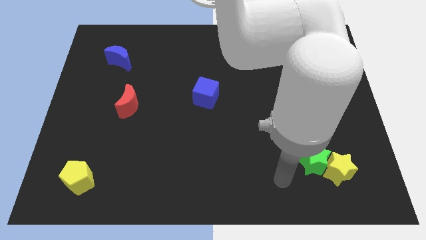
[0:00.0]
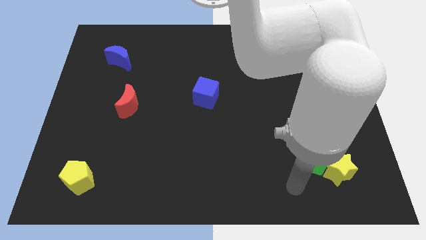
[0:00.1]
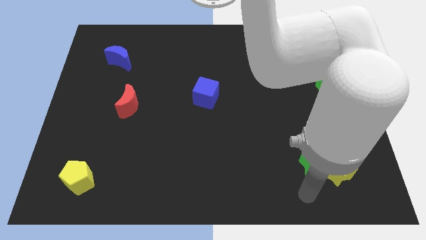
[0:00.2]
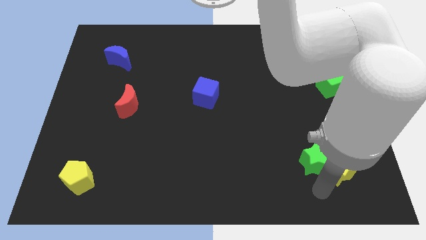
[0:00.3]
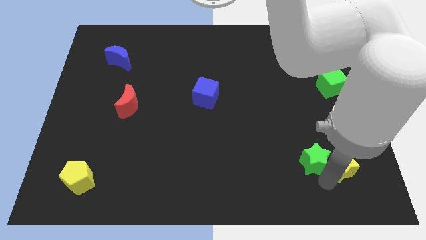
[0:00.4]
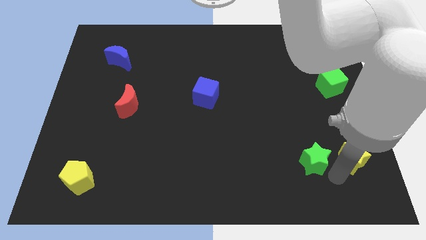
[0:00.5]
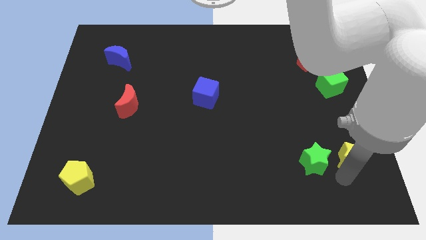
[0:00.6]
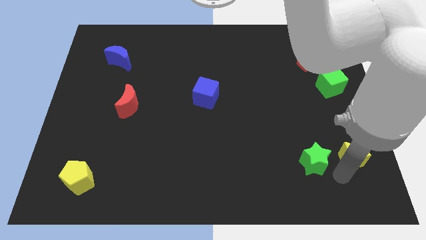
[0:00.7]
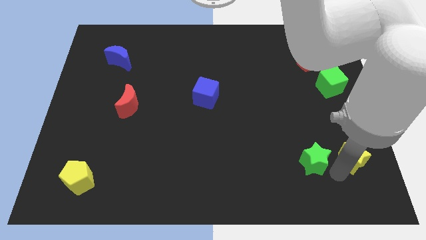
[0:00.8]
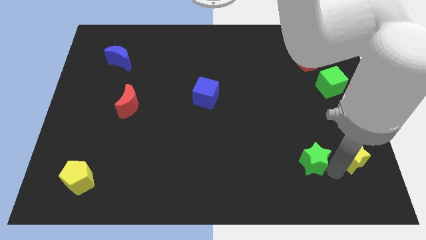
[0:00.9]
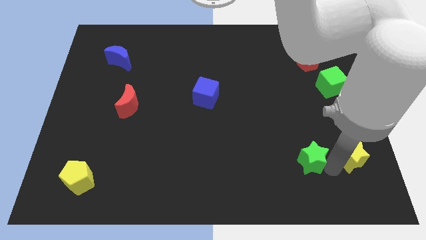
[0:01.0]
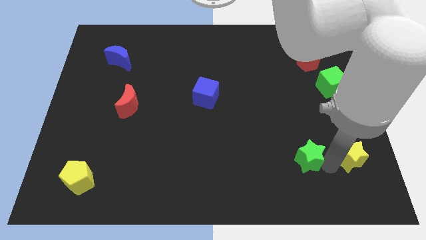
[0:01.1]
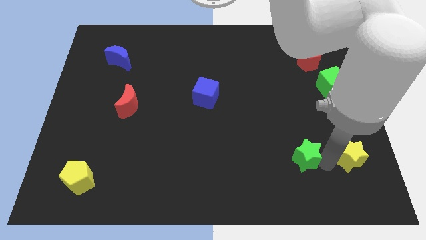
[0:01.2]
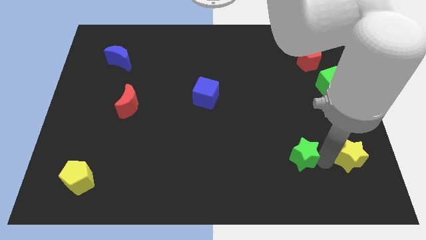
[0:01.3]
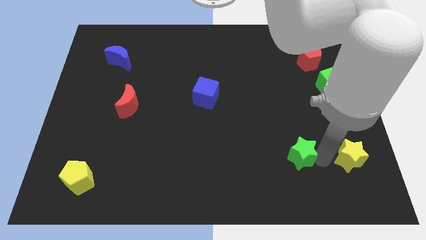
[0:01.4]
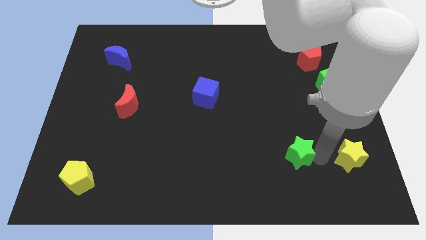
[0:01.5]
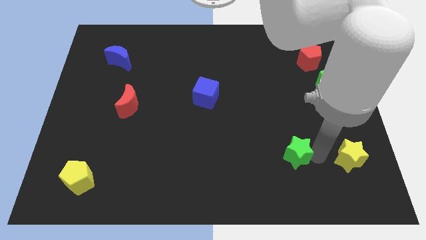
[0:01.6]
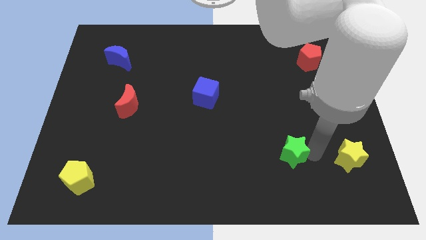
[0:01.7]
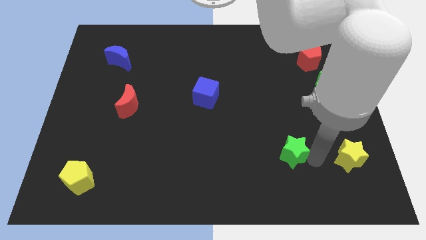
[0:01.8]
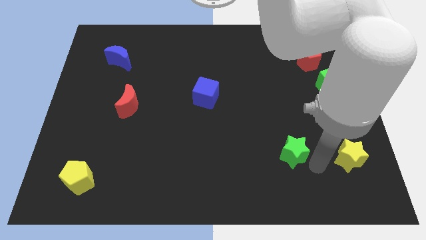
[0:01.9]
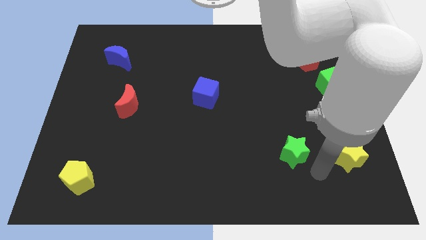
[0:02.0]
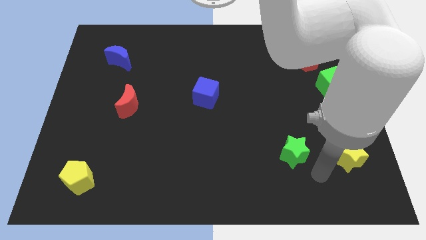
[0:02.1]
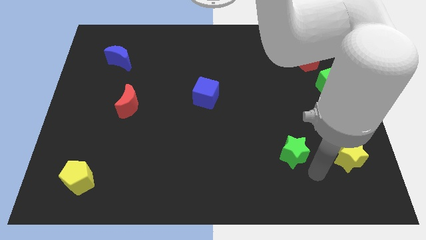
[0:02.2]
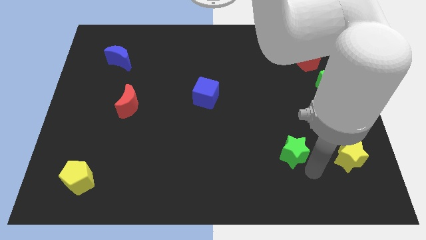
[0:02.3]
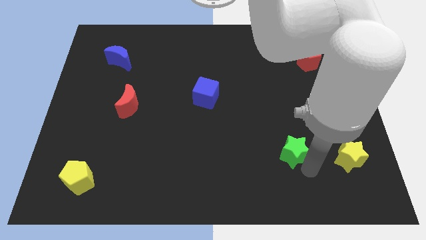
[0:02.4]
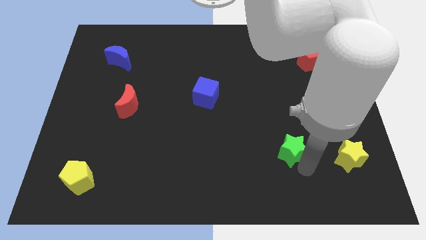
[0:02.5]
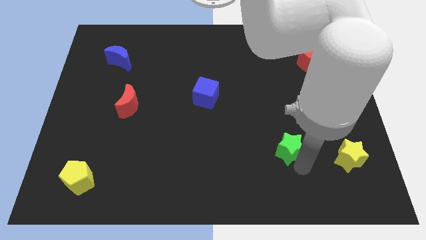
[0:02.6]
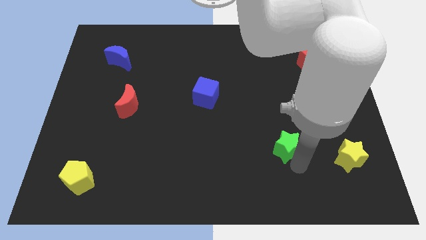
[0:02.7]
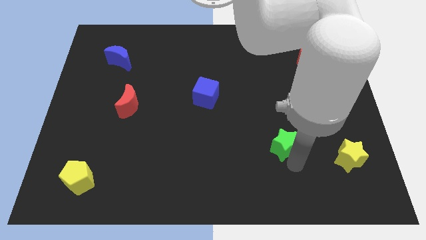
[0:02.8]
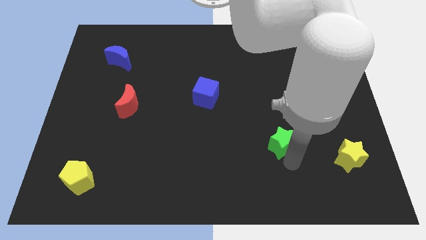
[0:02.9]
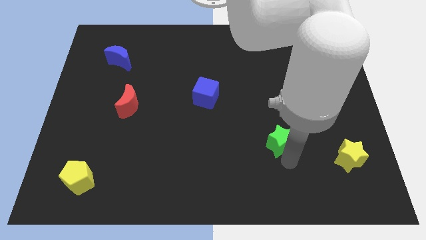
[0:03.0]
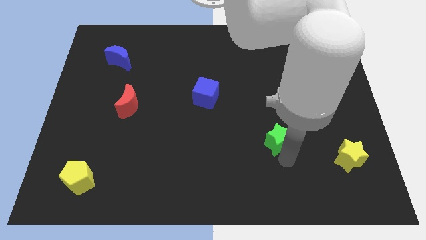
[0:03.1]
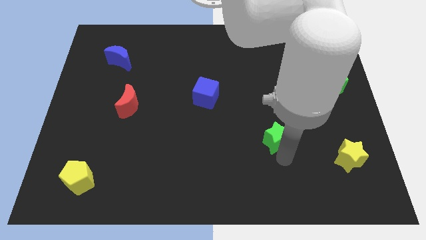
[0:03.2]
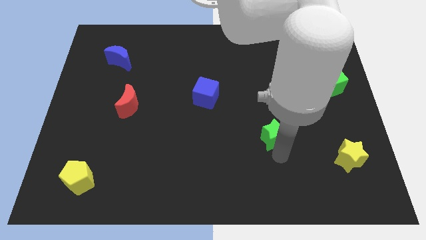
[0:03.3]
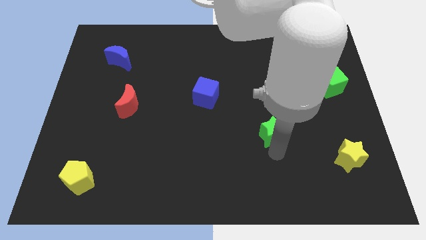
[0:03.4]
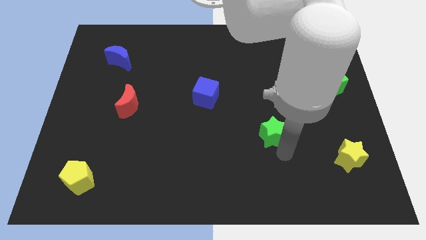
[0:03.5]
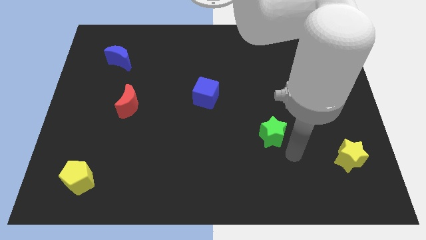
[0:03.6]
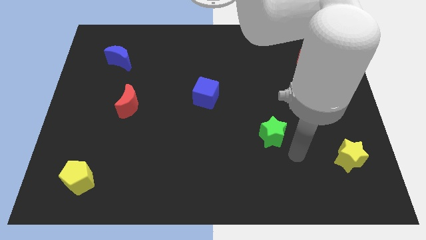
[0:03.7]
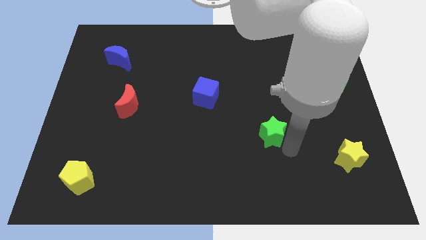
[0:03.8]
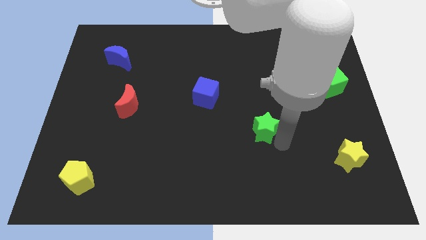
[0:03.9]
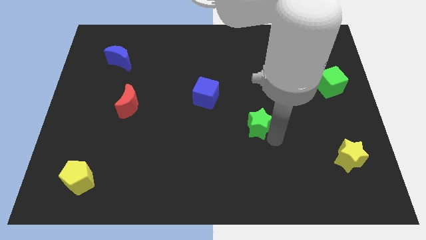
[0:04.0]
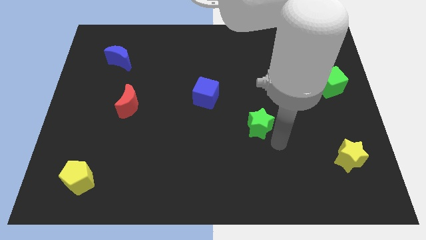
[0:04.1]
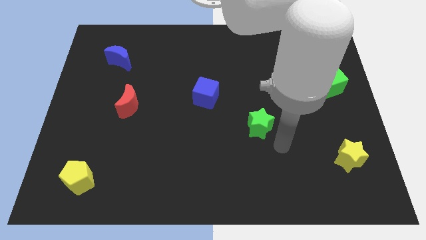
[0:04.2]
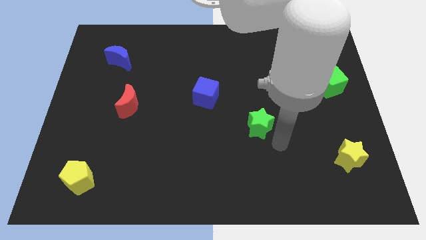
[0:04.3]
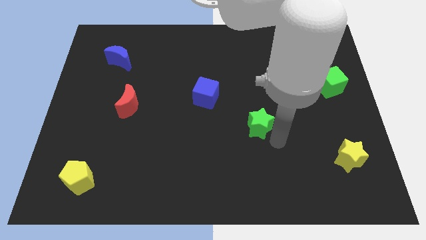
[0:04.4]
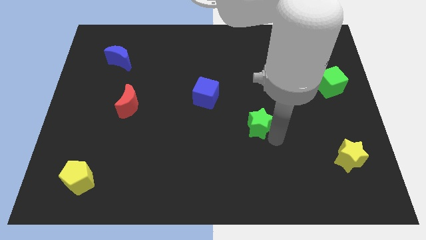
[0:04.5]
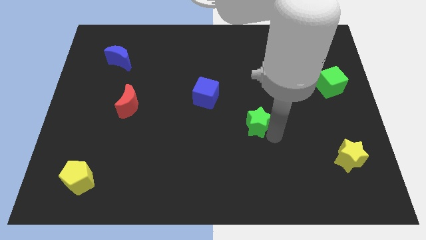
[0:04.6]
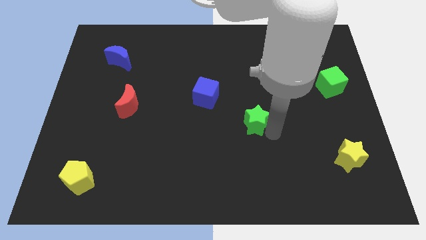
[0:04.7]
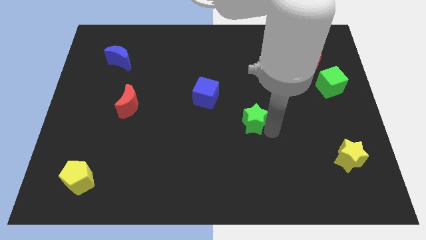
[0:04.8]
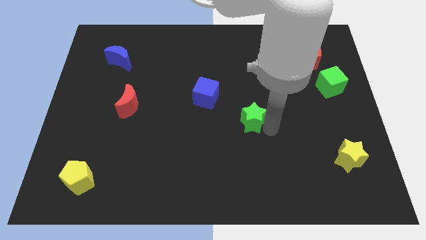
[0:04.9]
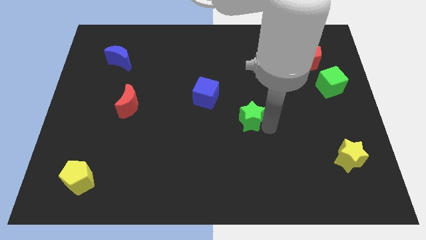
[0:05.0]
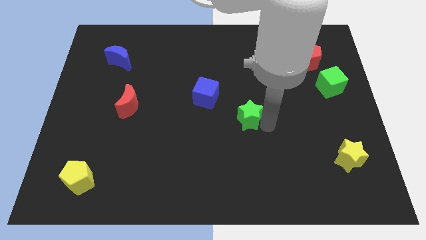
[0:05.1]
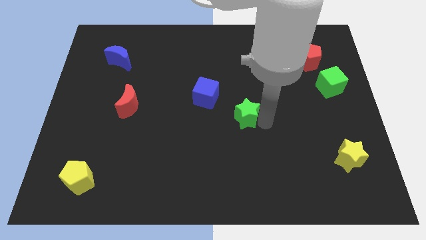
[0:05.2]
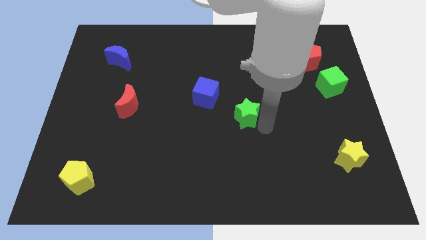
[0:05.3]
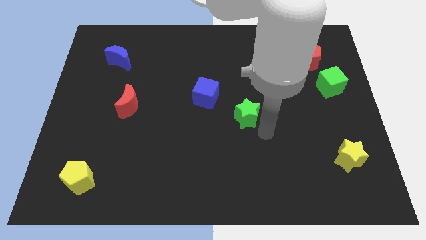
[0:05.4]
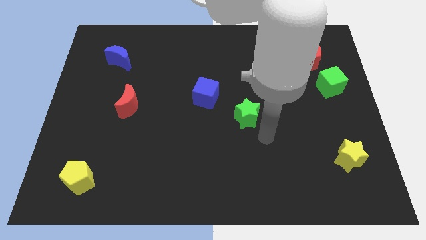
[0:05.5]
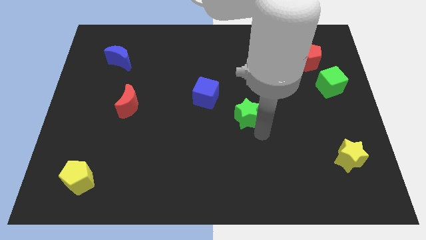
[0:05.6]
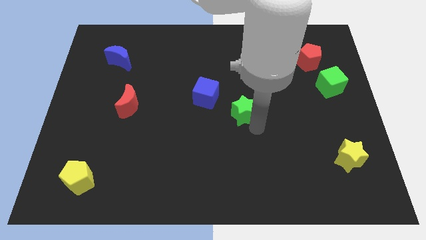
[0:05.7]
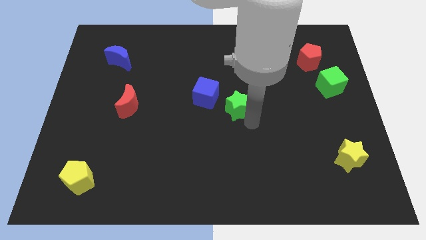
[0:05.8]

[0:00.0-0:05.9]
move the green star up and to the left diagonally

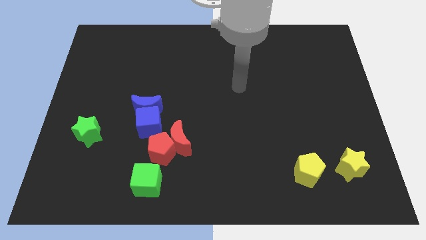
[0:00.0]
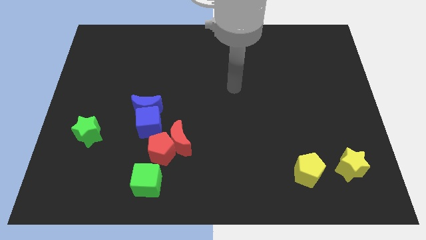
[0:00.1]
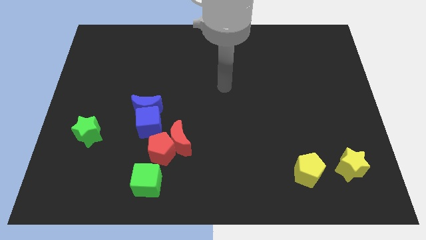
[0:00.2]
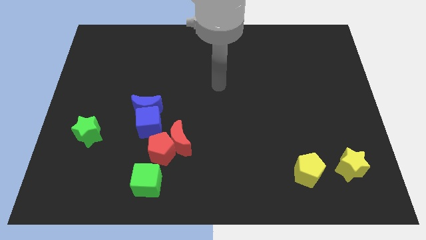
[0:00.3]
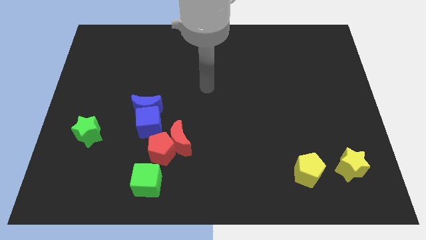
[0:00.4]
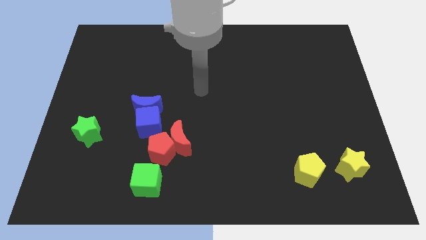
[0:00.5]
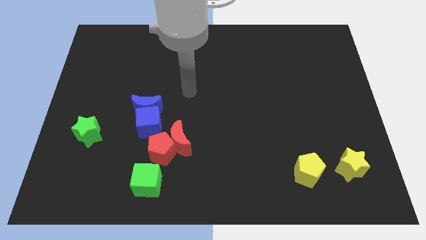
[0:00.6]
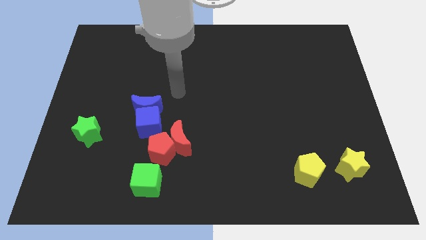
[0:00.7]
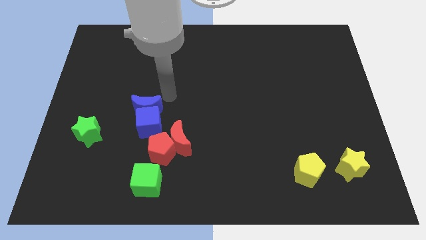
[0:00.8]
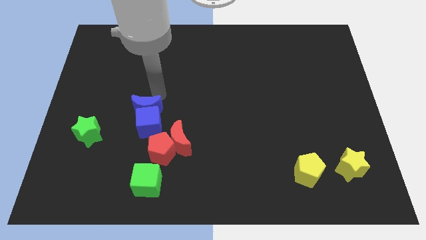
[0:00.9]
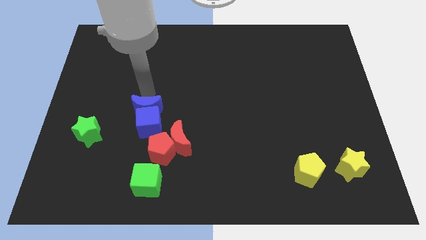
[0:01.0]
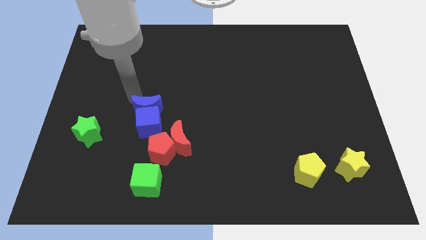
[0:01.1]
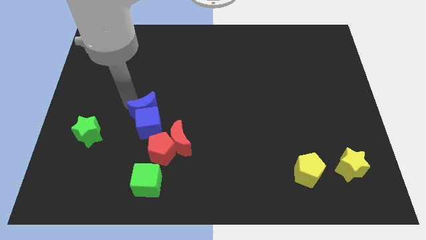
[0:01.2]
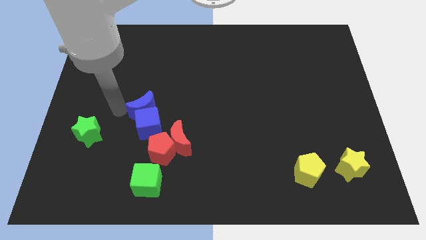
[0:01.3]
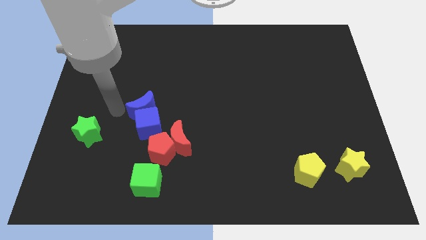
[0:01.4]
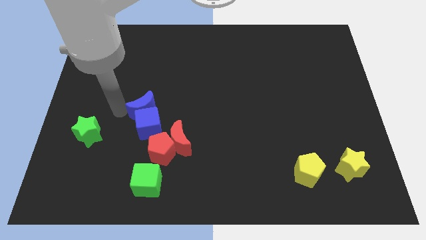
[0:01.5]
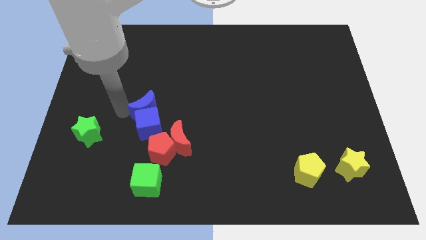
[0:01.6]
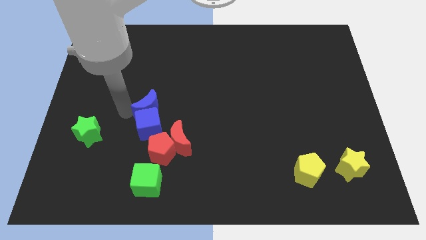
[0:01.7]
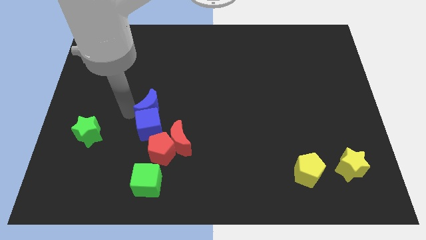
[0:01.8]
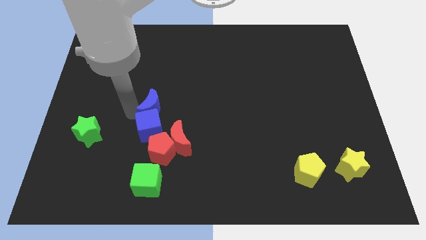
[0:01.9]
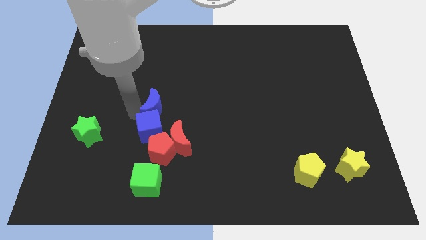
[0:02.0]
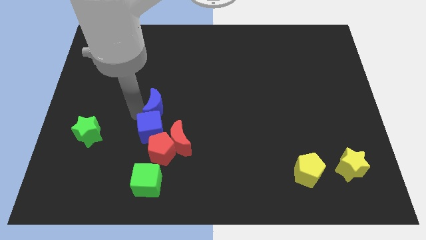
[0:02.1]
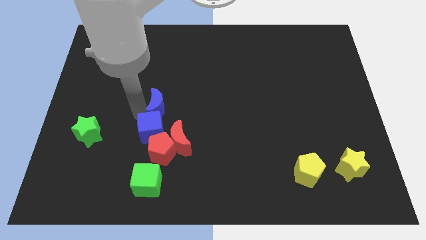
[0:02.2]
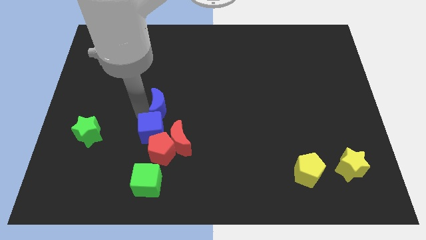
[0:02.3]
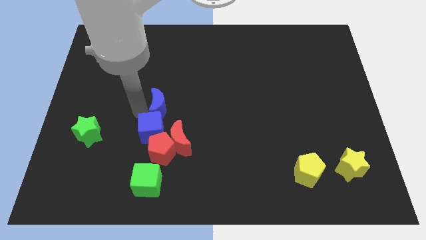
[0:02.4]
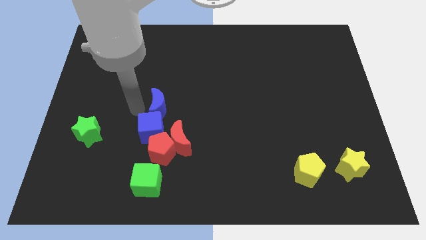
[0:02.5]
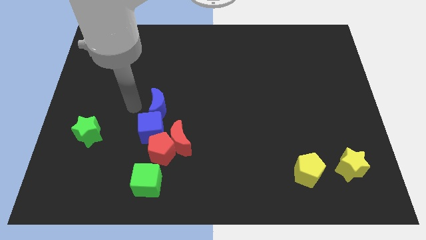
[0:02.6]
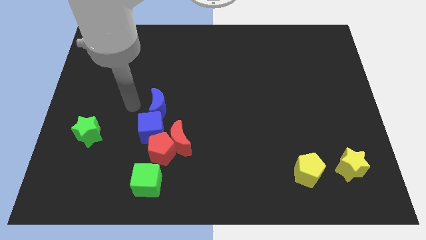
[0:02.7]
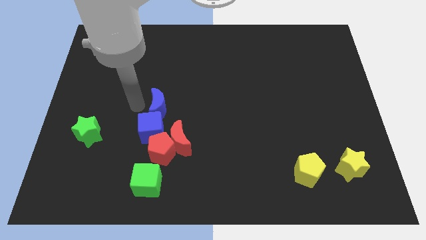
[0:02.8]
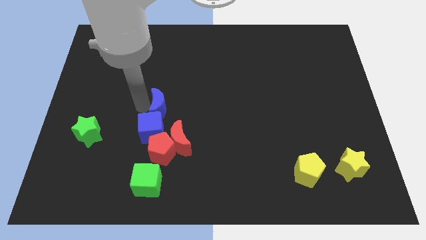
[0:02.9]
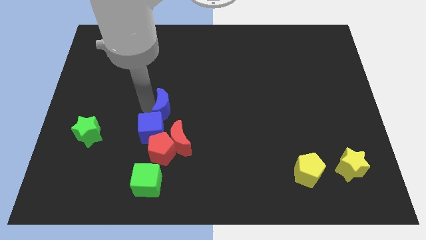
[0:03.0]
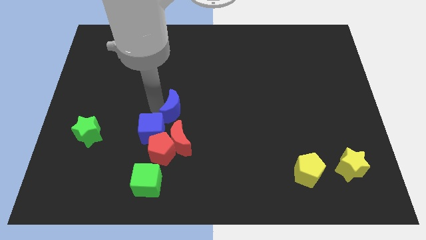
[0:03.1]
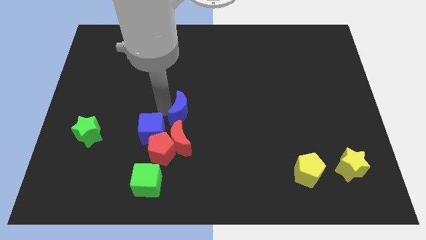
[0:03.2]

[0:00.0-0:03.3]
push the blue moon right a little bit
